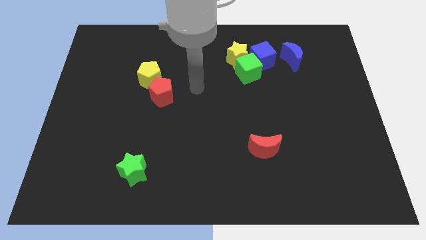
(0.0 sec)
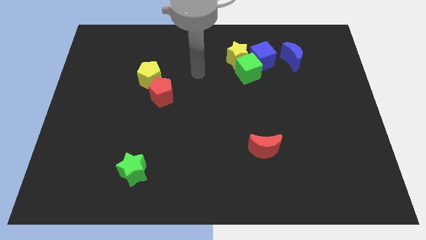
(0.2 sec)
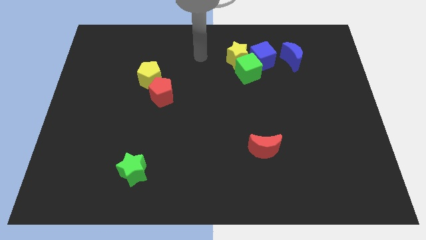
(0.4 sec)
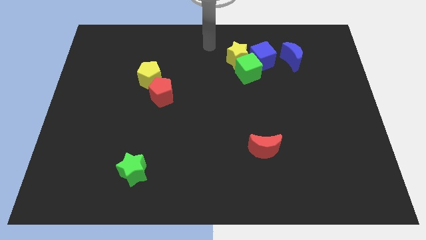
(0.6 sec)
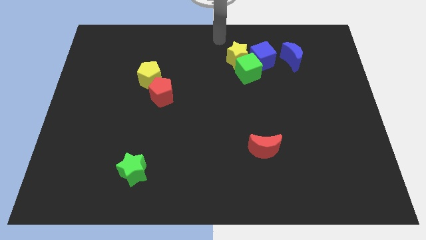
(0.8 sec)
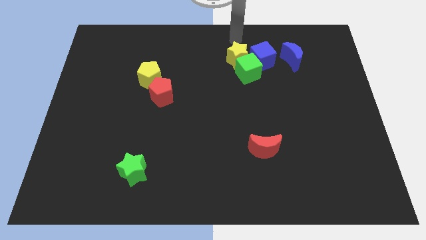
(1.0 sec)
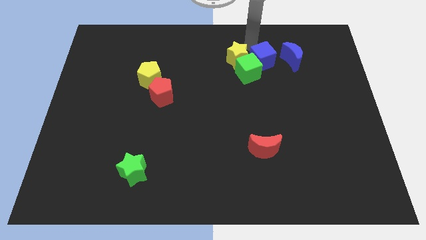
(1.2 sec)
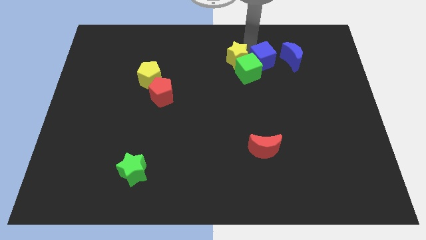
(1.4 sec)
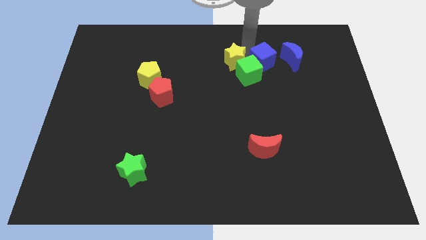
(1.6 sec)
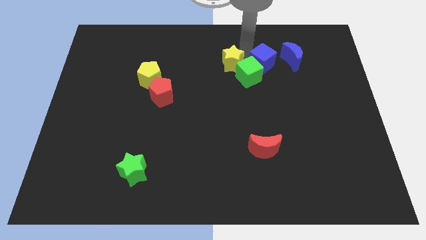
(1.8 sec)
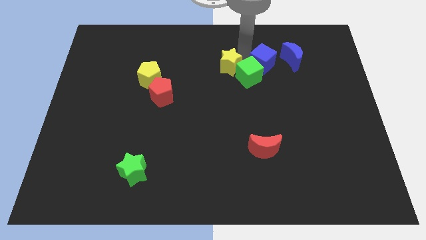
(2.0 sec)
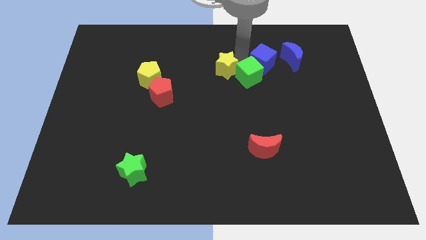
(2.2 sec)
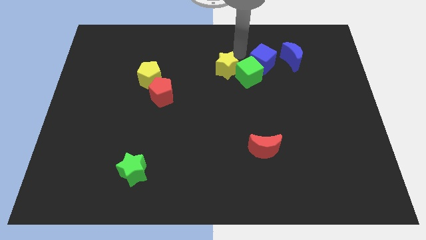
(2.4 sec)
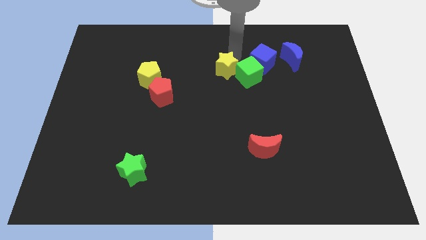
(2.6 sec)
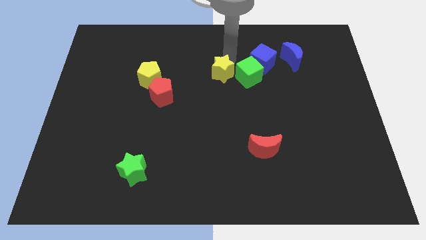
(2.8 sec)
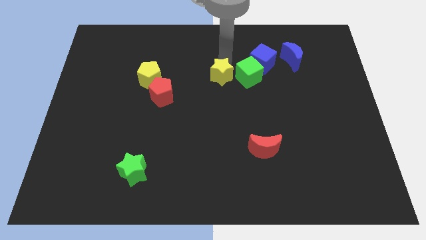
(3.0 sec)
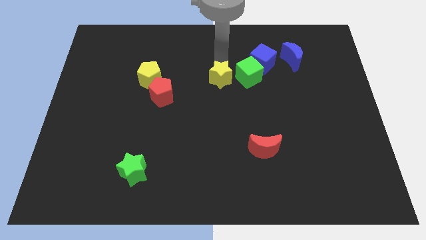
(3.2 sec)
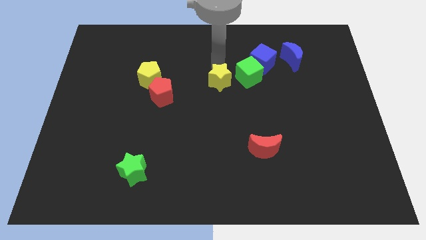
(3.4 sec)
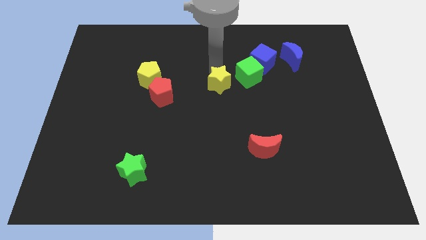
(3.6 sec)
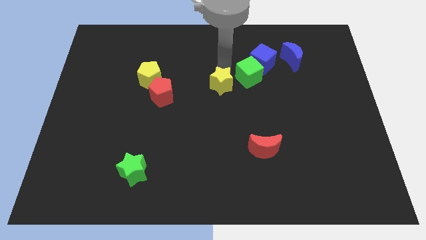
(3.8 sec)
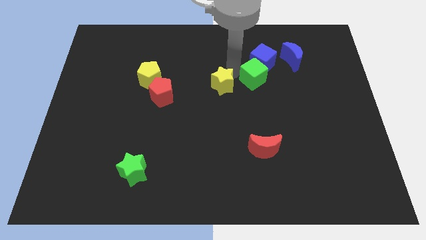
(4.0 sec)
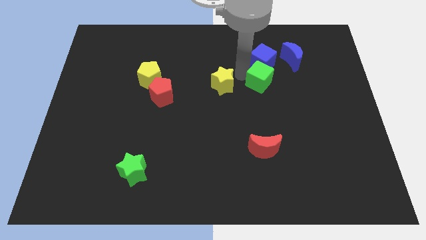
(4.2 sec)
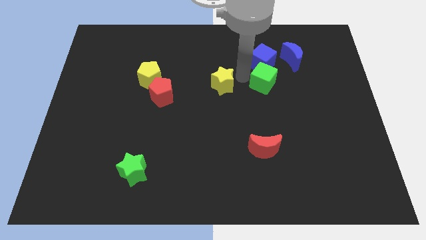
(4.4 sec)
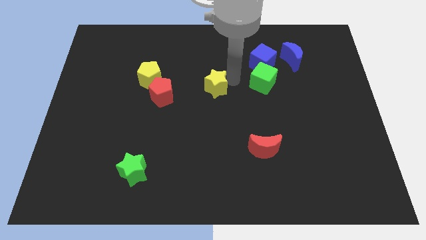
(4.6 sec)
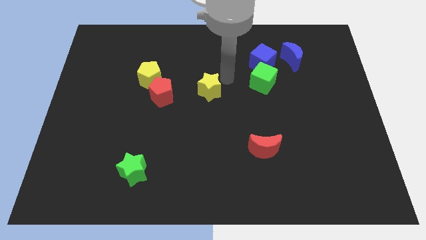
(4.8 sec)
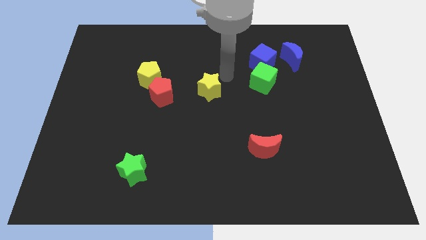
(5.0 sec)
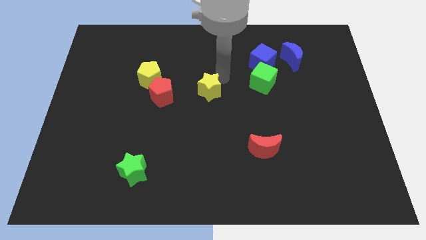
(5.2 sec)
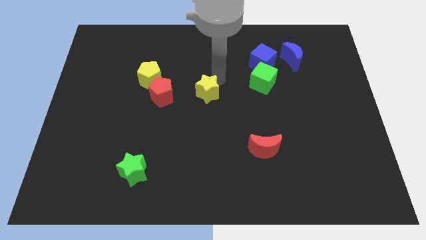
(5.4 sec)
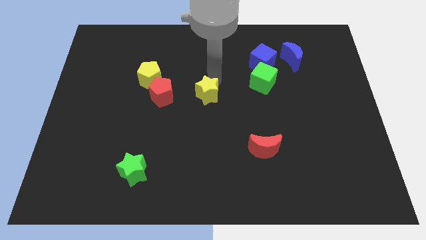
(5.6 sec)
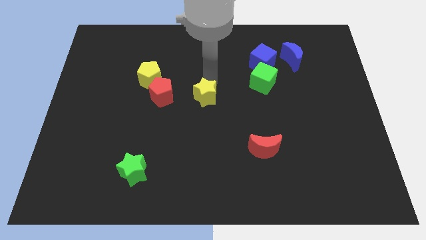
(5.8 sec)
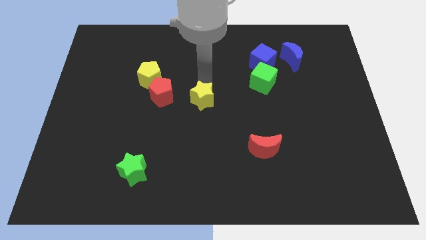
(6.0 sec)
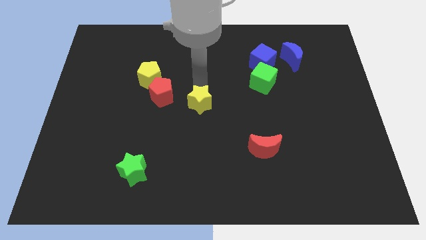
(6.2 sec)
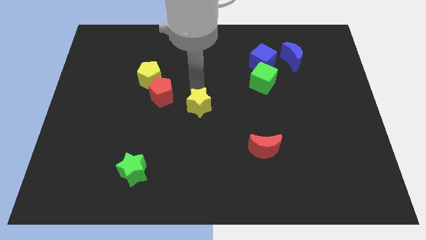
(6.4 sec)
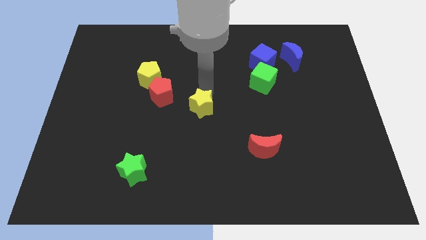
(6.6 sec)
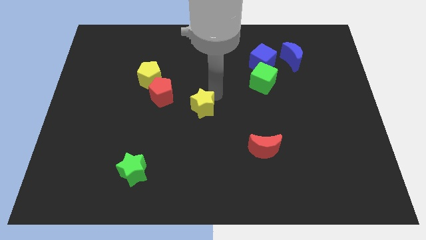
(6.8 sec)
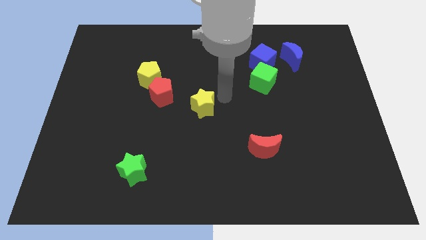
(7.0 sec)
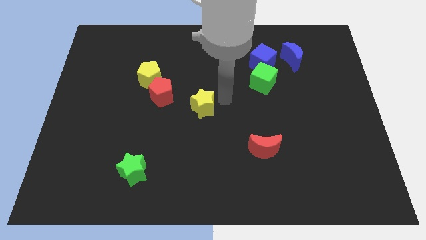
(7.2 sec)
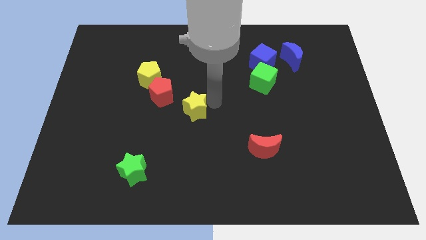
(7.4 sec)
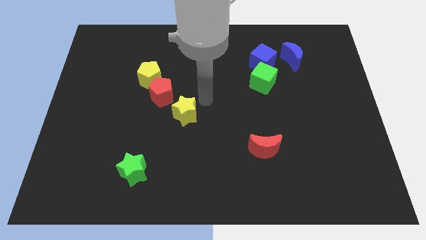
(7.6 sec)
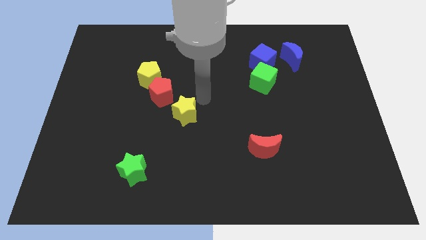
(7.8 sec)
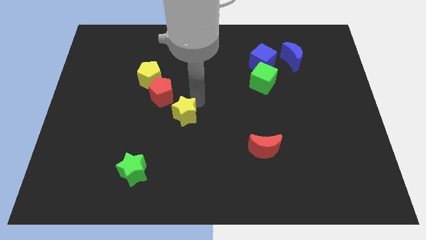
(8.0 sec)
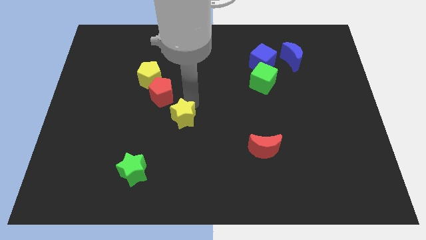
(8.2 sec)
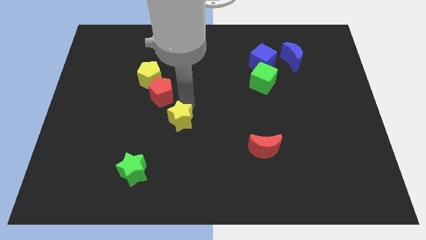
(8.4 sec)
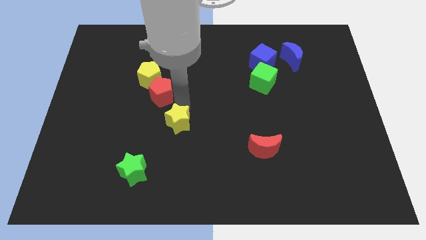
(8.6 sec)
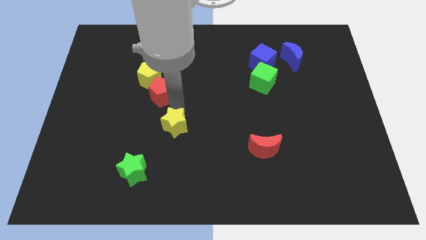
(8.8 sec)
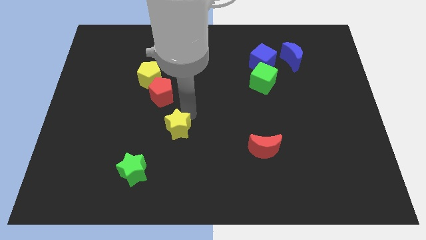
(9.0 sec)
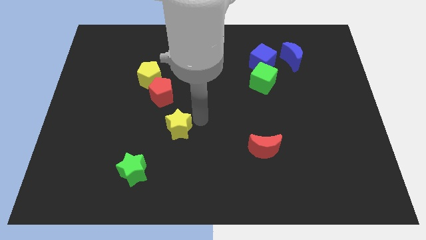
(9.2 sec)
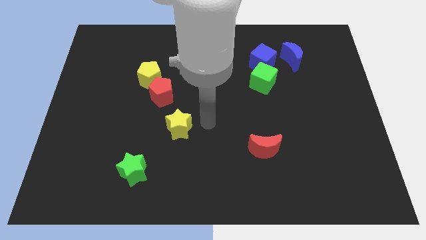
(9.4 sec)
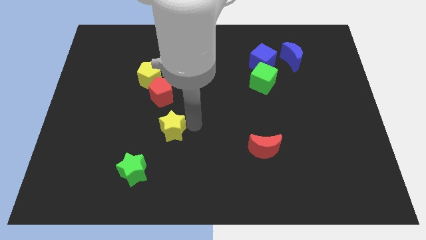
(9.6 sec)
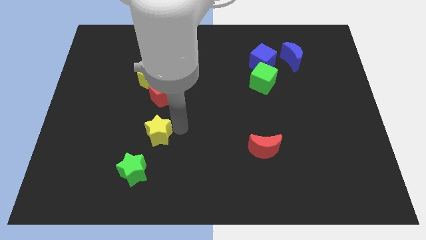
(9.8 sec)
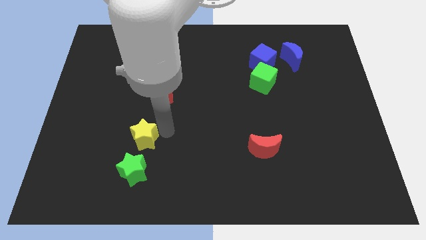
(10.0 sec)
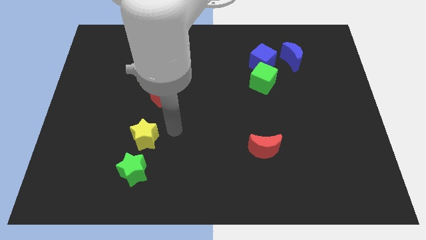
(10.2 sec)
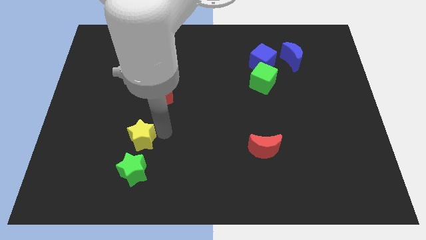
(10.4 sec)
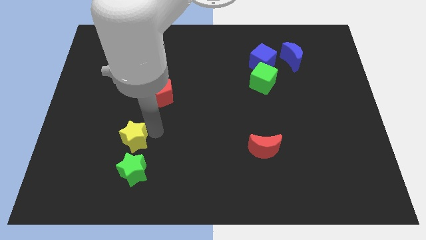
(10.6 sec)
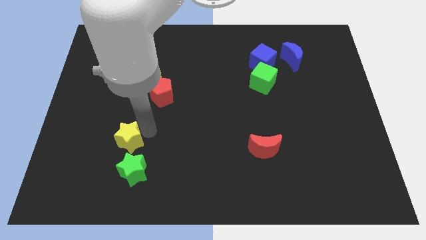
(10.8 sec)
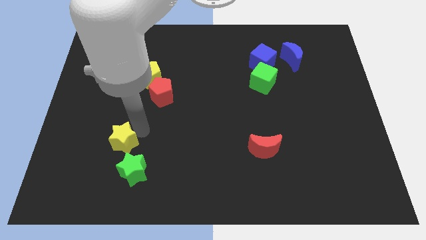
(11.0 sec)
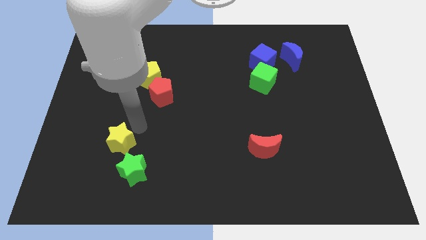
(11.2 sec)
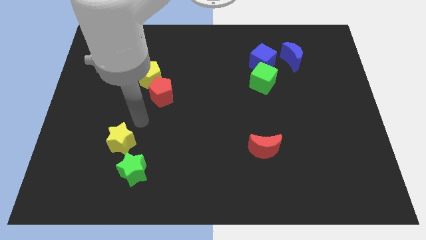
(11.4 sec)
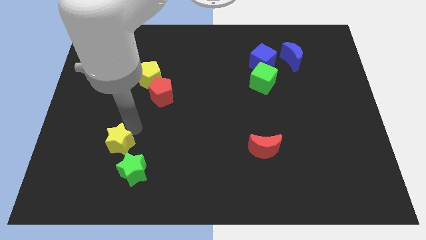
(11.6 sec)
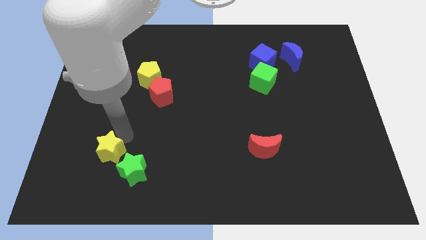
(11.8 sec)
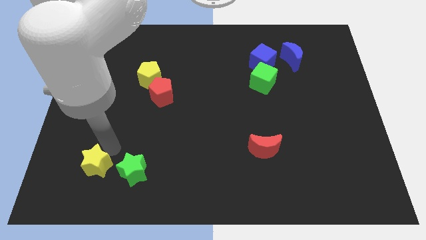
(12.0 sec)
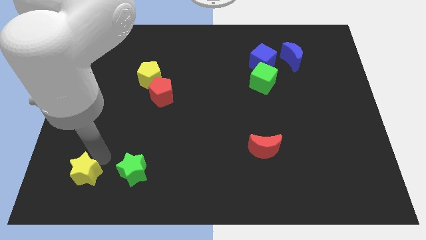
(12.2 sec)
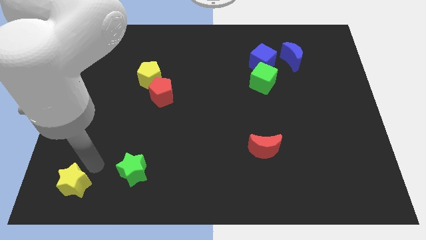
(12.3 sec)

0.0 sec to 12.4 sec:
slide the yellow star to the bottom left corner
